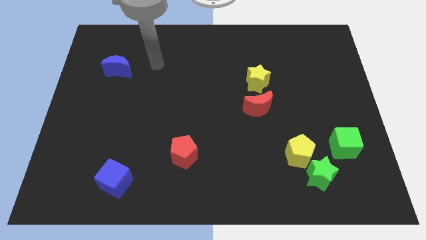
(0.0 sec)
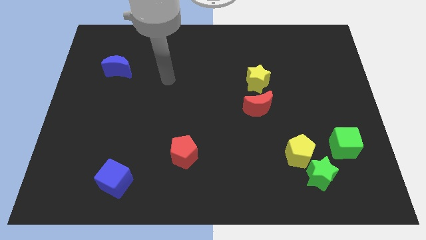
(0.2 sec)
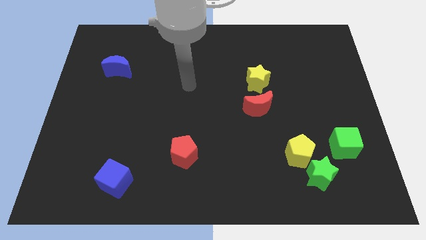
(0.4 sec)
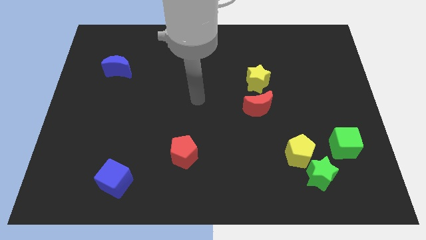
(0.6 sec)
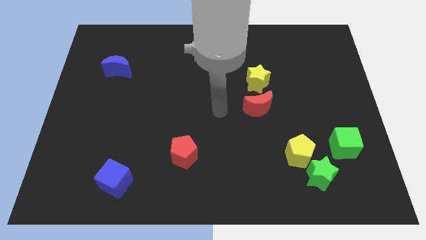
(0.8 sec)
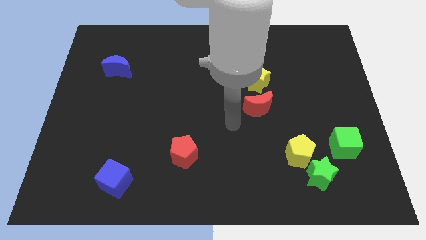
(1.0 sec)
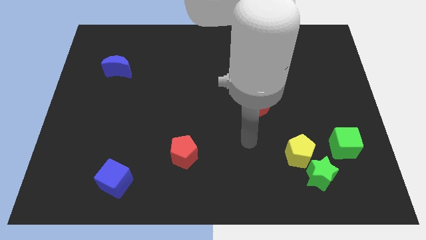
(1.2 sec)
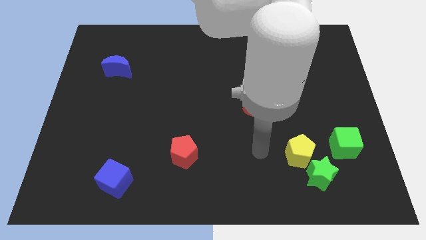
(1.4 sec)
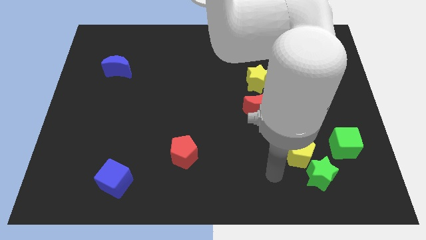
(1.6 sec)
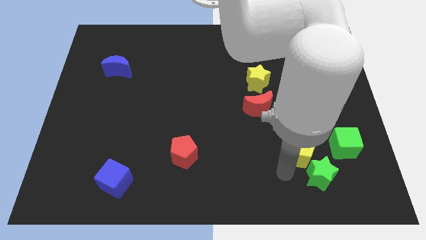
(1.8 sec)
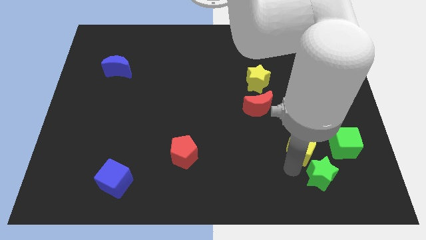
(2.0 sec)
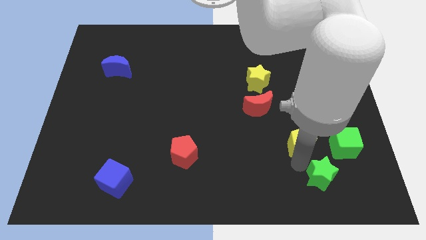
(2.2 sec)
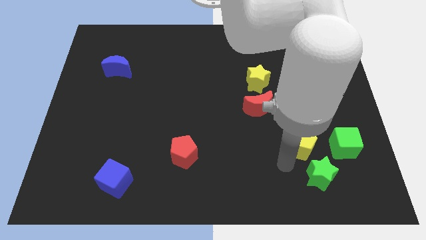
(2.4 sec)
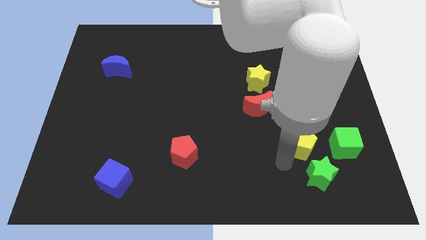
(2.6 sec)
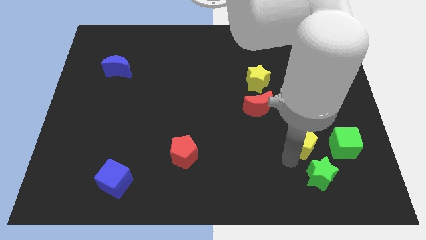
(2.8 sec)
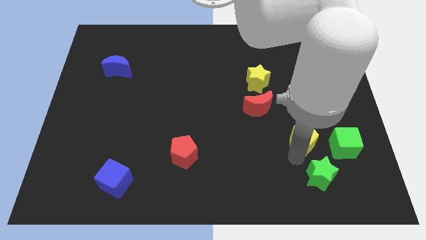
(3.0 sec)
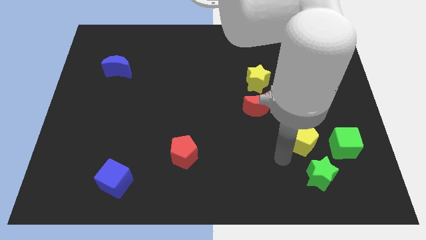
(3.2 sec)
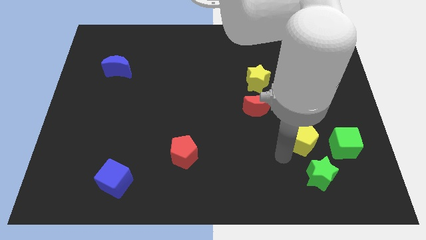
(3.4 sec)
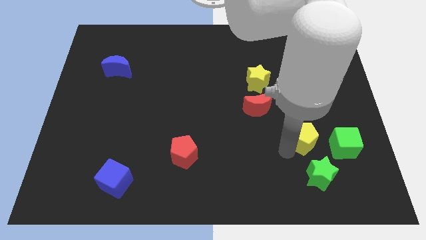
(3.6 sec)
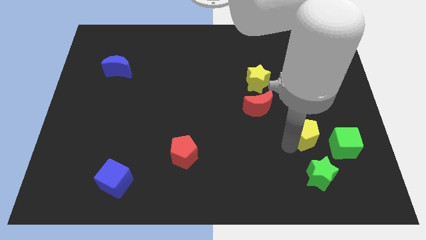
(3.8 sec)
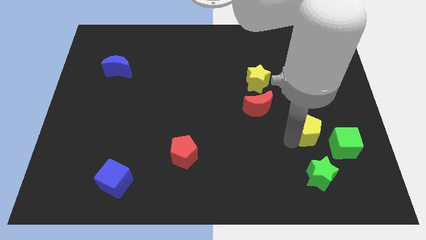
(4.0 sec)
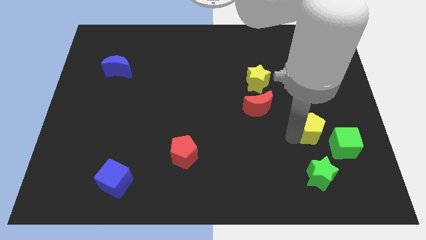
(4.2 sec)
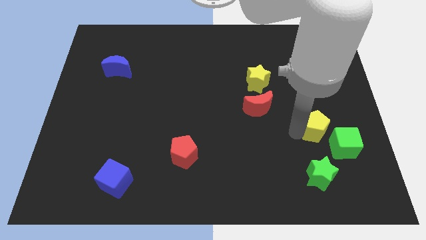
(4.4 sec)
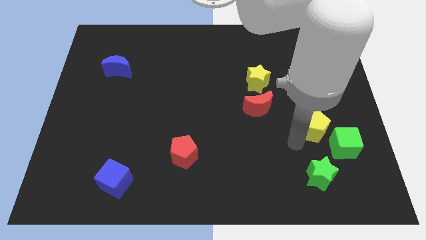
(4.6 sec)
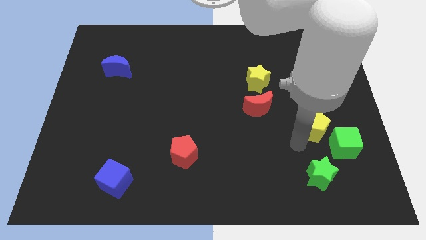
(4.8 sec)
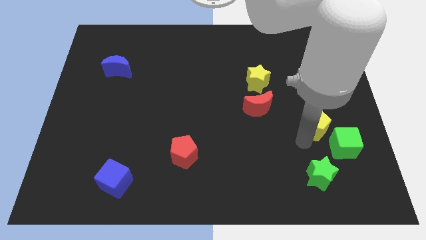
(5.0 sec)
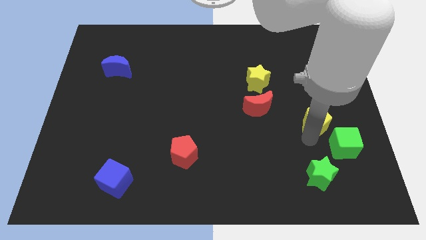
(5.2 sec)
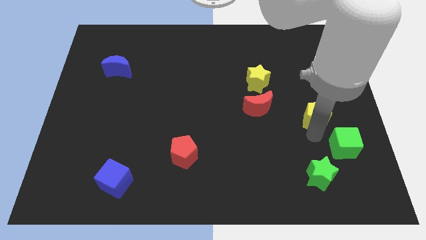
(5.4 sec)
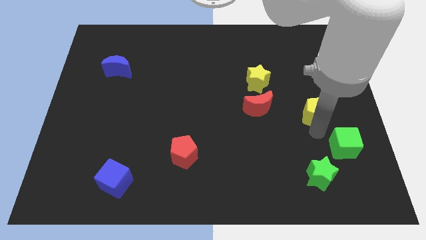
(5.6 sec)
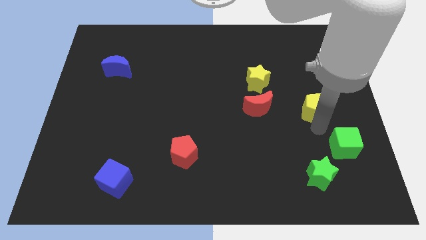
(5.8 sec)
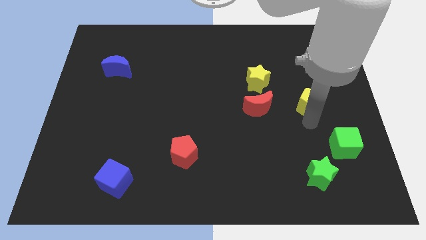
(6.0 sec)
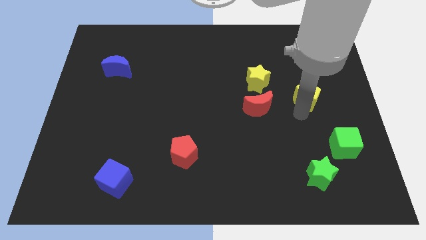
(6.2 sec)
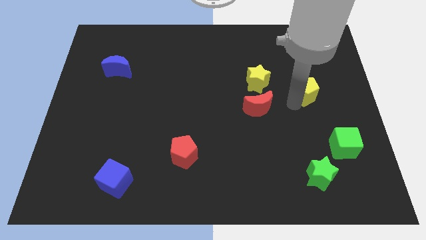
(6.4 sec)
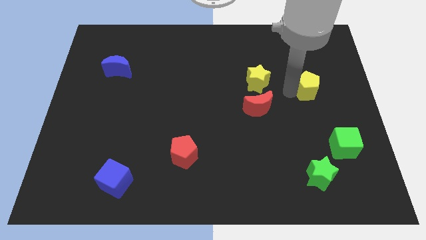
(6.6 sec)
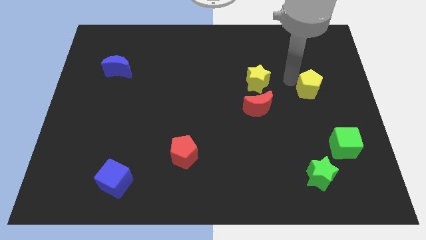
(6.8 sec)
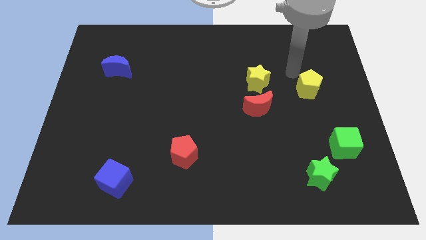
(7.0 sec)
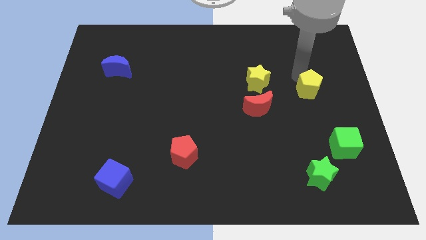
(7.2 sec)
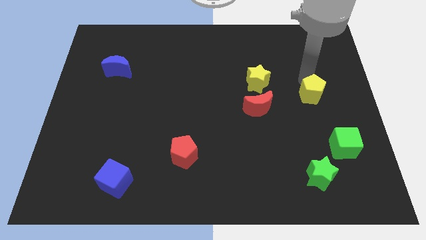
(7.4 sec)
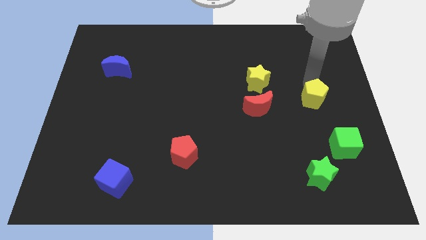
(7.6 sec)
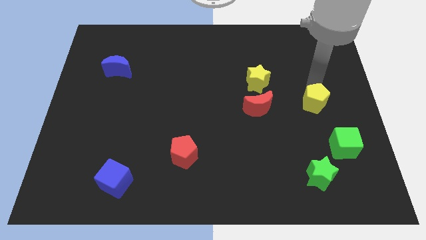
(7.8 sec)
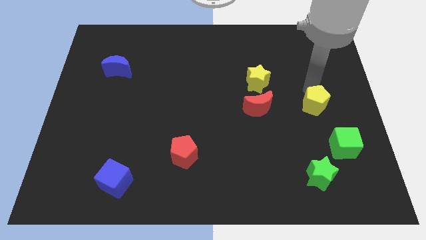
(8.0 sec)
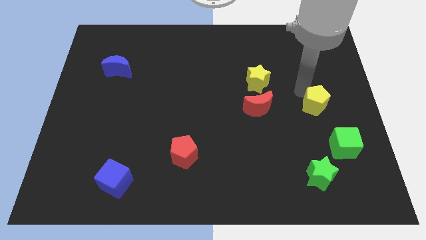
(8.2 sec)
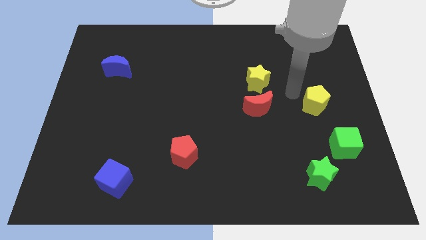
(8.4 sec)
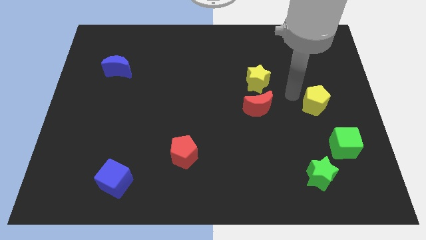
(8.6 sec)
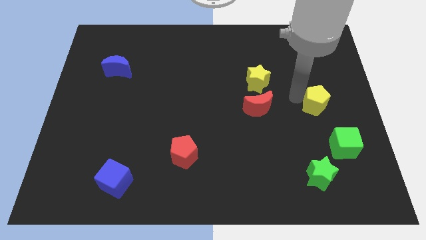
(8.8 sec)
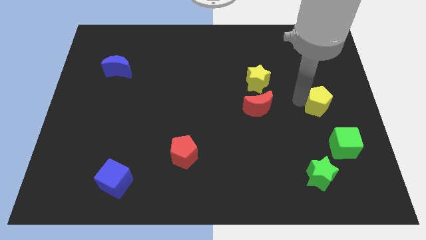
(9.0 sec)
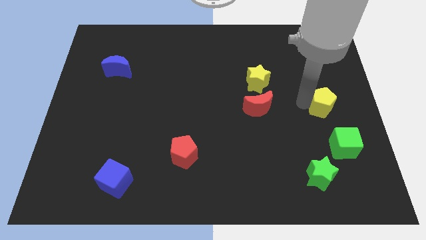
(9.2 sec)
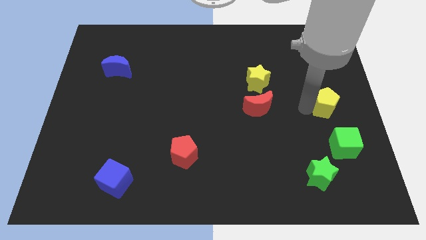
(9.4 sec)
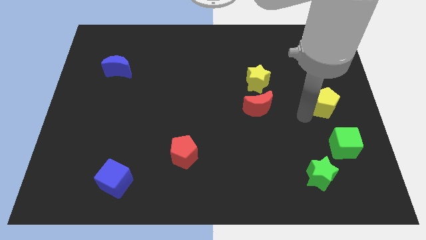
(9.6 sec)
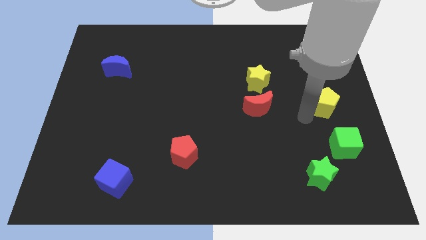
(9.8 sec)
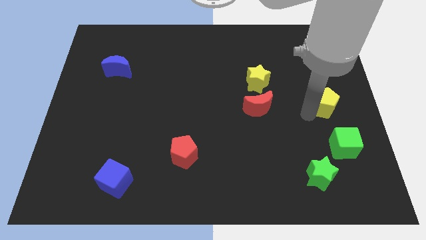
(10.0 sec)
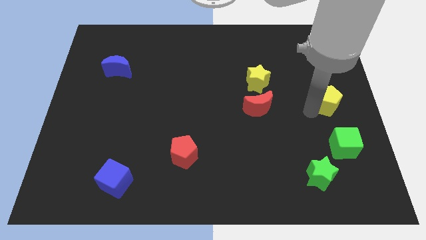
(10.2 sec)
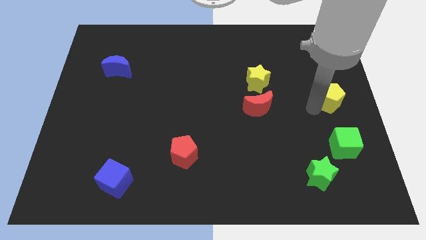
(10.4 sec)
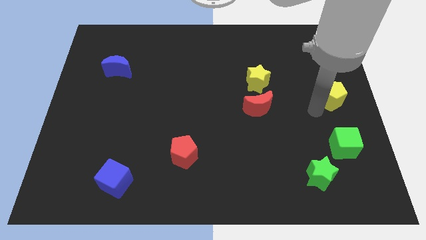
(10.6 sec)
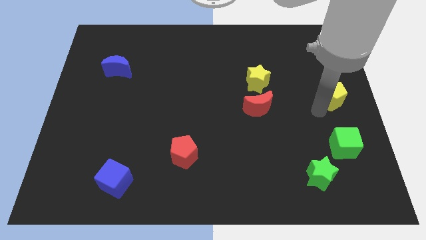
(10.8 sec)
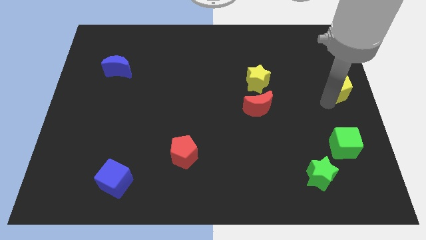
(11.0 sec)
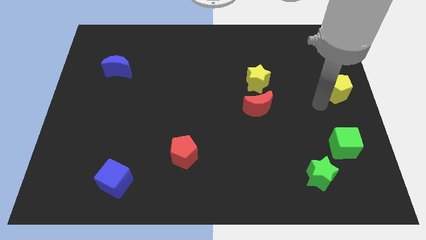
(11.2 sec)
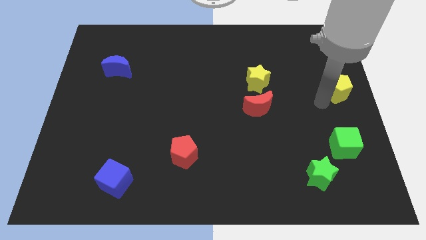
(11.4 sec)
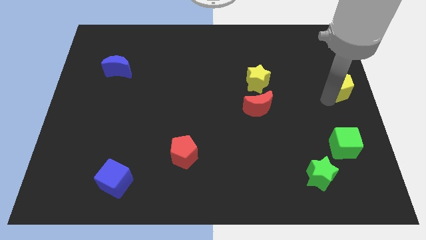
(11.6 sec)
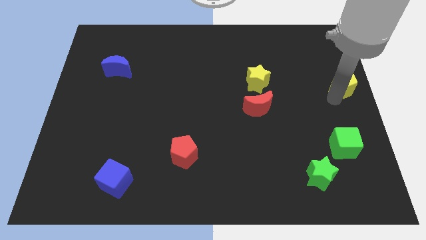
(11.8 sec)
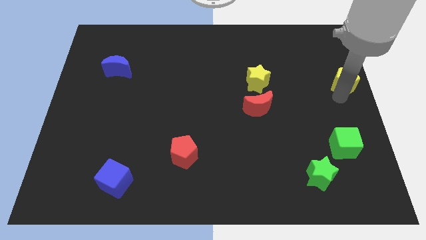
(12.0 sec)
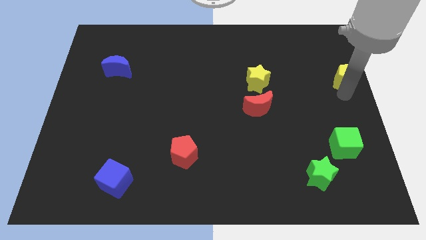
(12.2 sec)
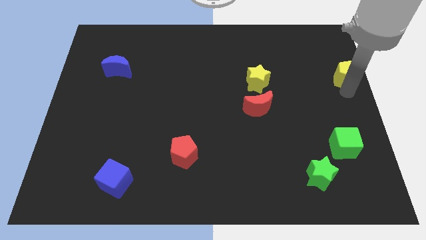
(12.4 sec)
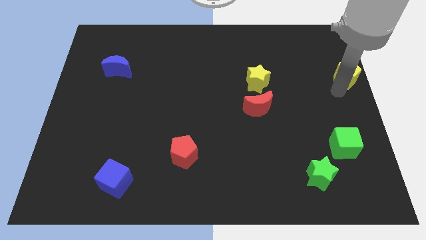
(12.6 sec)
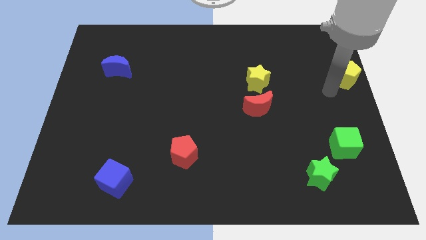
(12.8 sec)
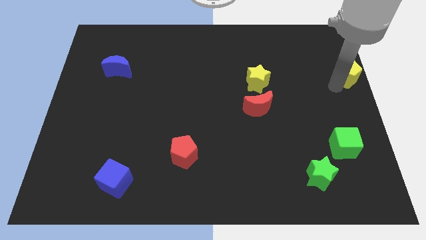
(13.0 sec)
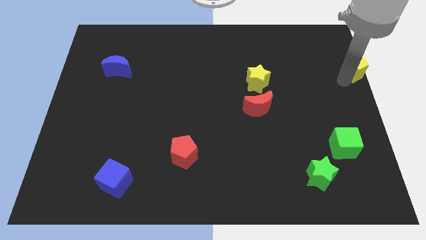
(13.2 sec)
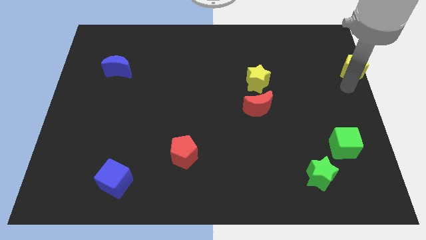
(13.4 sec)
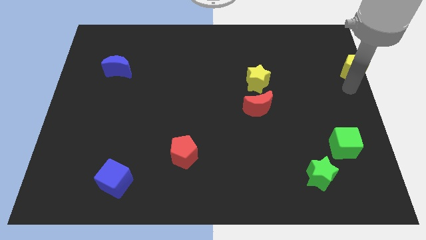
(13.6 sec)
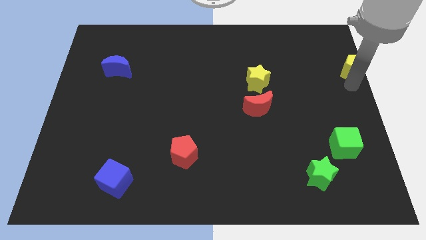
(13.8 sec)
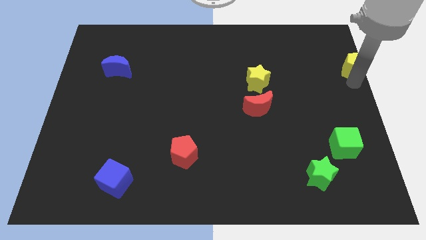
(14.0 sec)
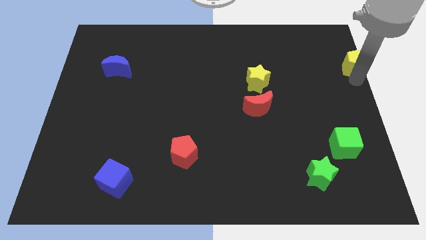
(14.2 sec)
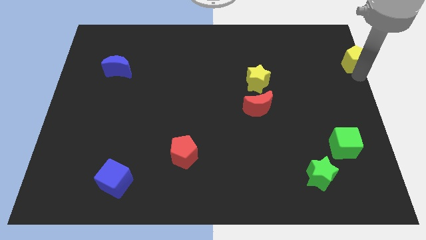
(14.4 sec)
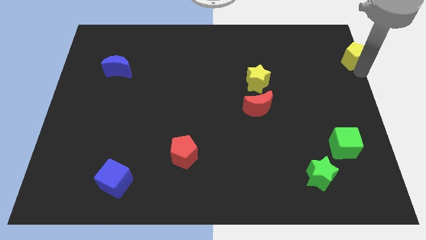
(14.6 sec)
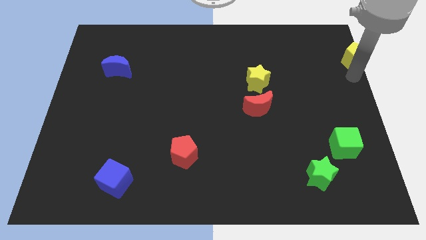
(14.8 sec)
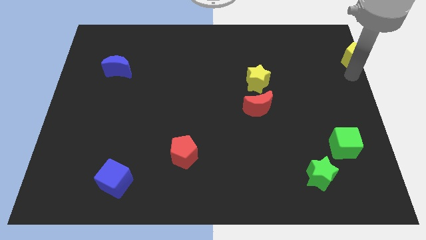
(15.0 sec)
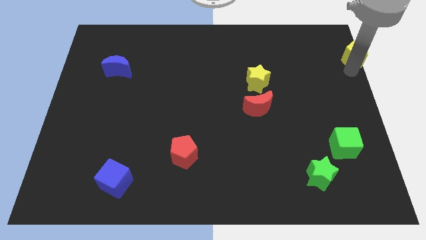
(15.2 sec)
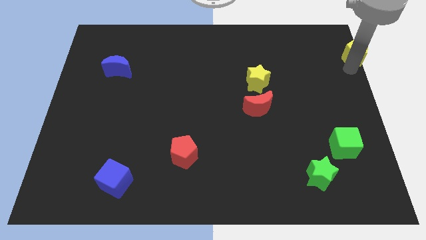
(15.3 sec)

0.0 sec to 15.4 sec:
move the yellow pentagon to the upper right corner
